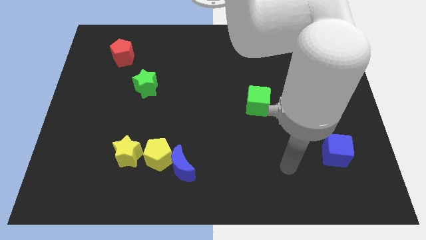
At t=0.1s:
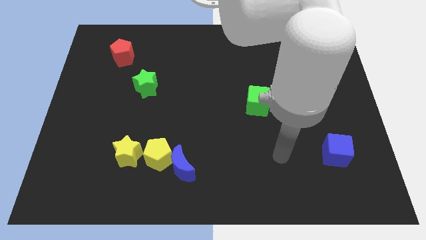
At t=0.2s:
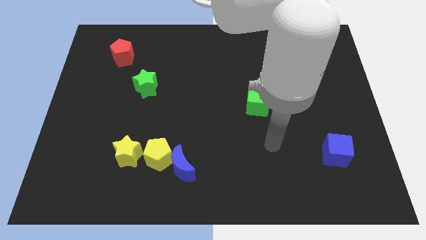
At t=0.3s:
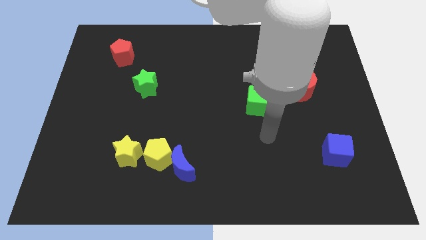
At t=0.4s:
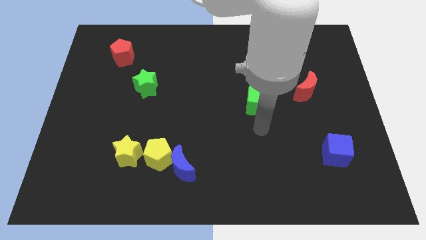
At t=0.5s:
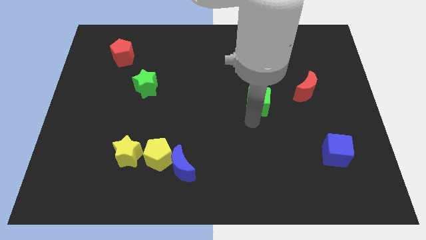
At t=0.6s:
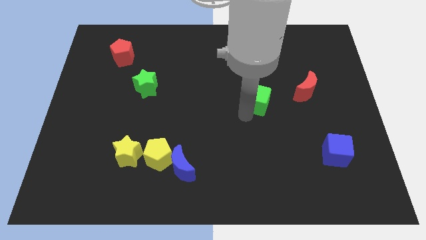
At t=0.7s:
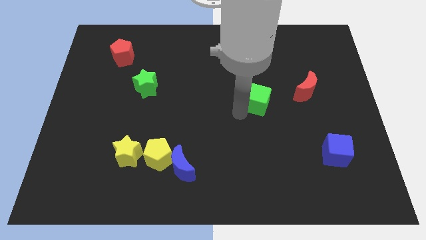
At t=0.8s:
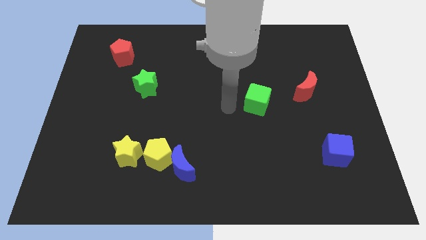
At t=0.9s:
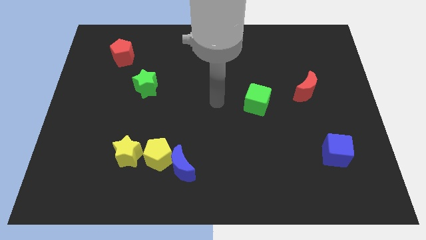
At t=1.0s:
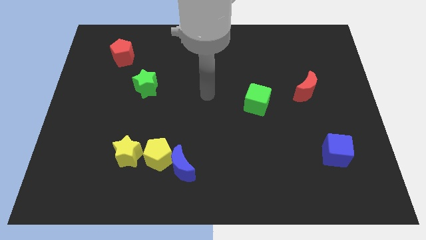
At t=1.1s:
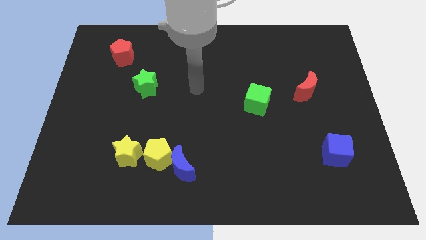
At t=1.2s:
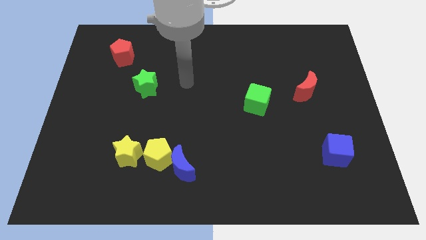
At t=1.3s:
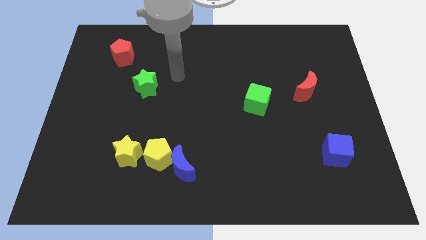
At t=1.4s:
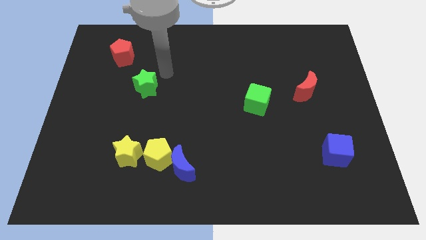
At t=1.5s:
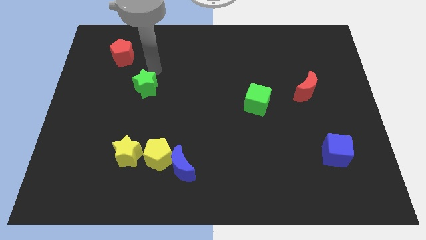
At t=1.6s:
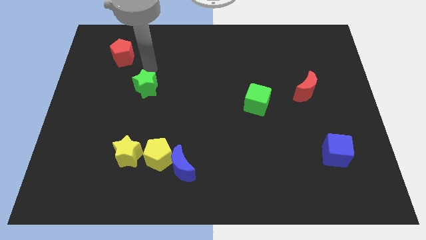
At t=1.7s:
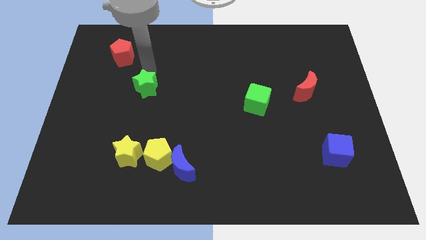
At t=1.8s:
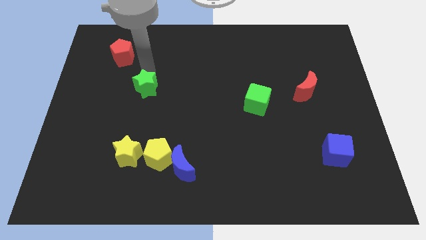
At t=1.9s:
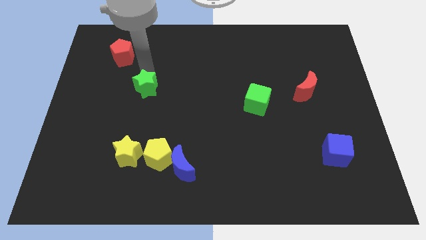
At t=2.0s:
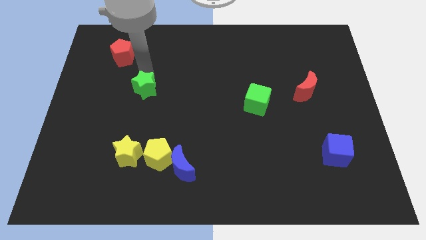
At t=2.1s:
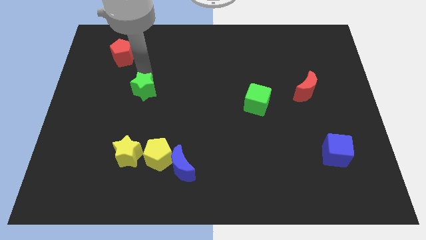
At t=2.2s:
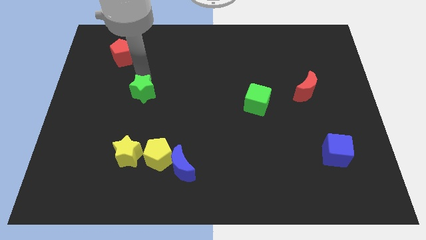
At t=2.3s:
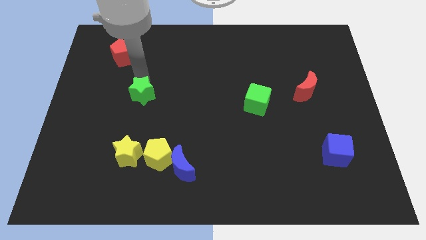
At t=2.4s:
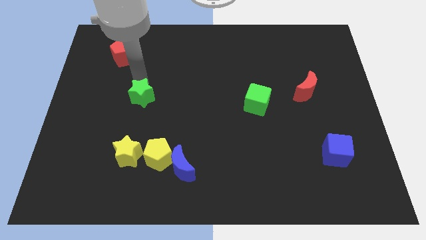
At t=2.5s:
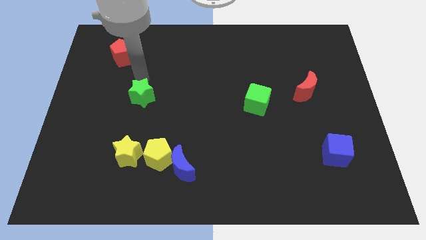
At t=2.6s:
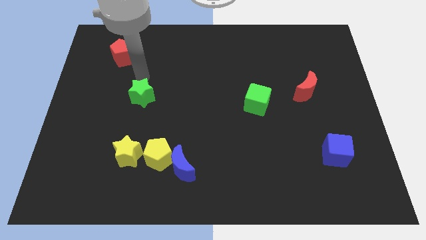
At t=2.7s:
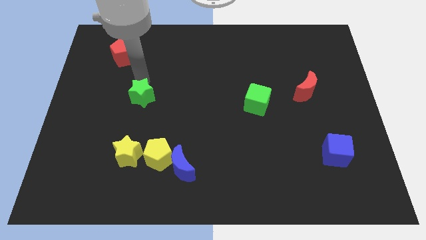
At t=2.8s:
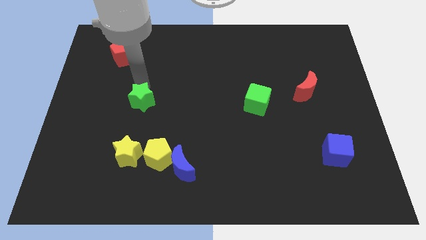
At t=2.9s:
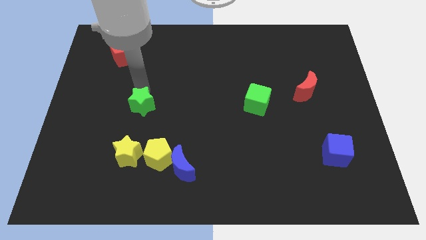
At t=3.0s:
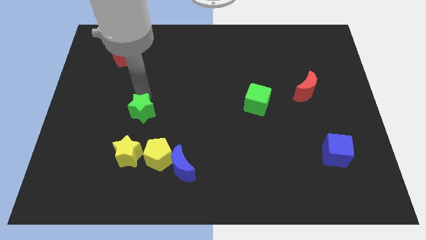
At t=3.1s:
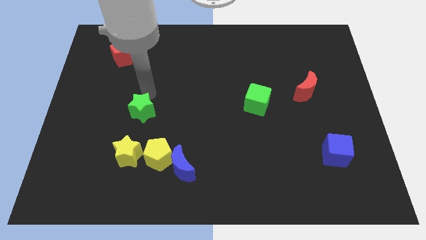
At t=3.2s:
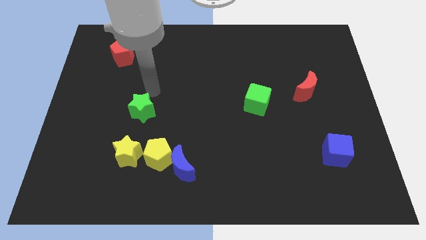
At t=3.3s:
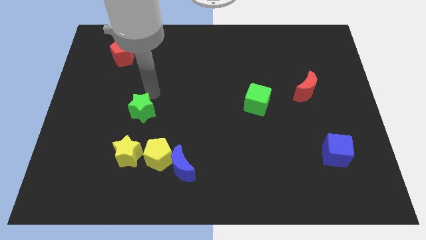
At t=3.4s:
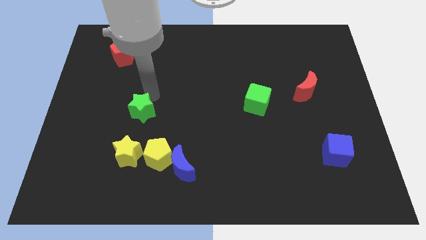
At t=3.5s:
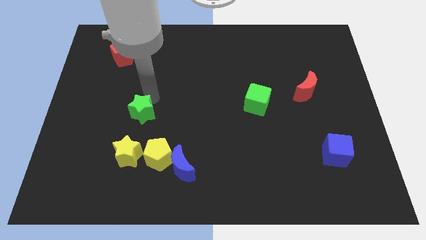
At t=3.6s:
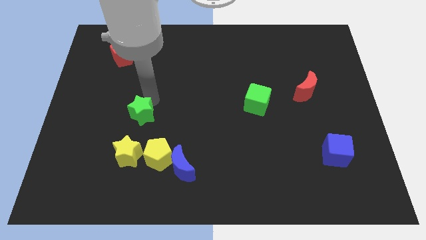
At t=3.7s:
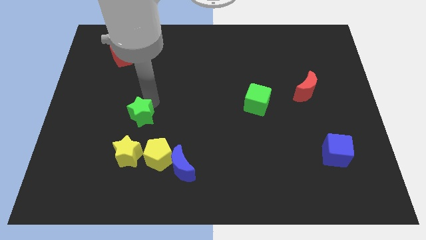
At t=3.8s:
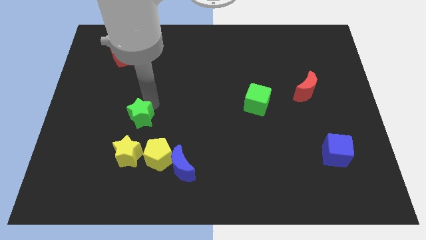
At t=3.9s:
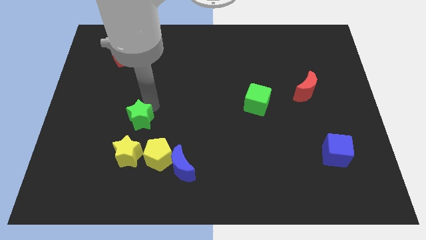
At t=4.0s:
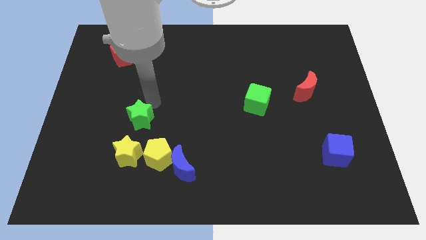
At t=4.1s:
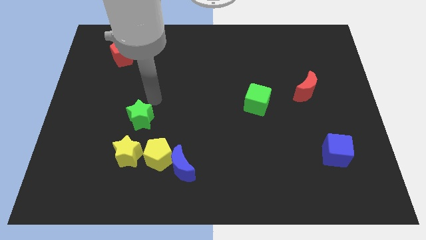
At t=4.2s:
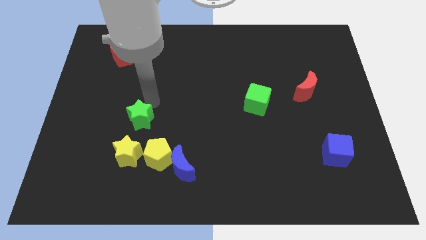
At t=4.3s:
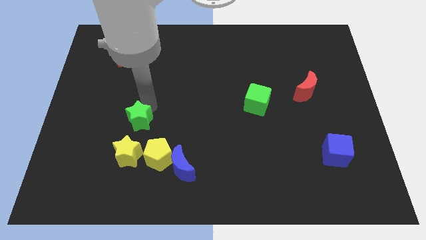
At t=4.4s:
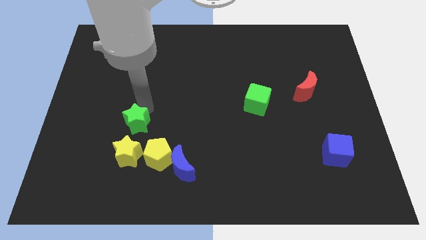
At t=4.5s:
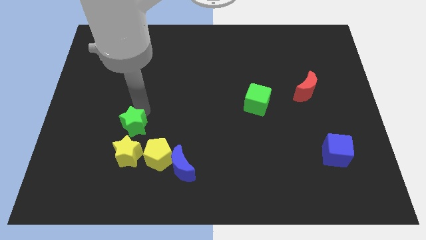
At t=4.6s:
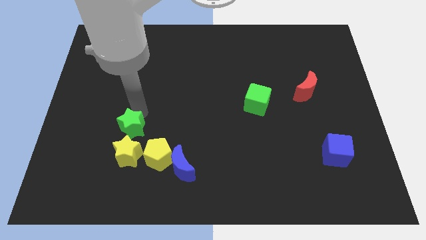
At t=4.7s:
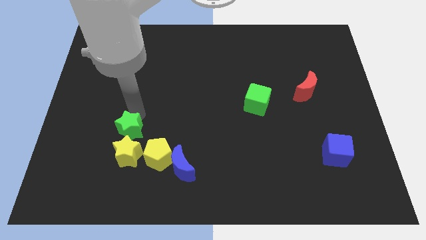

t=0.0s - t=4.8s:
push the green star to the yellow star

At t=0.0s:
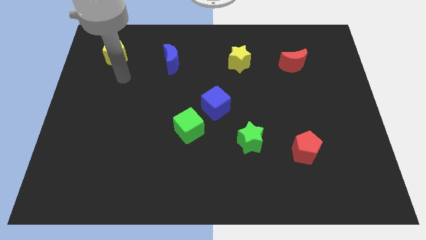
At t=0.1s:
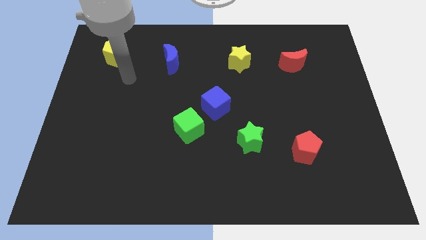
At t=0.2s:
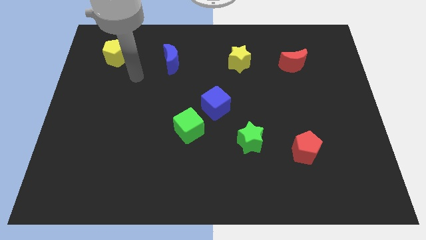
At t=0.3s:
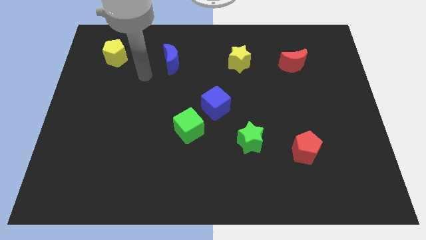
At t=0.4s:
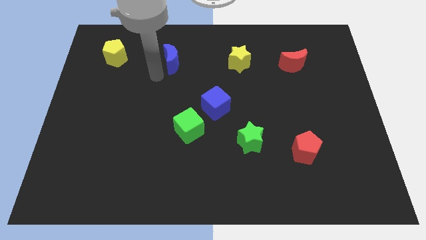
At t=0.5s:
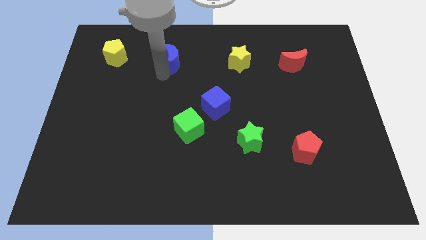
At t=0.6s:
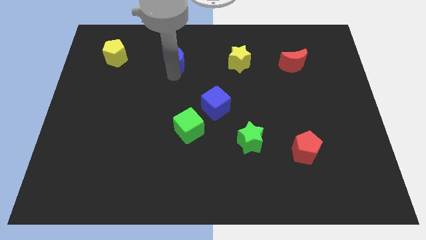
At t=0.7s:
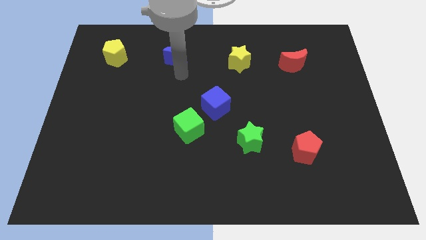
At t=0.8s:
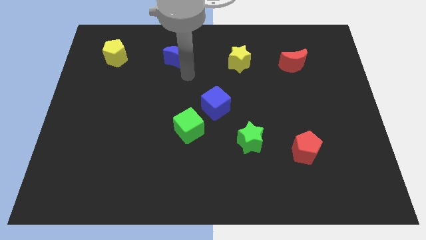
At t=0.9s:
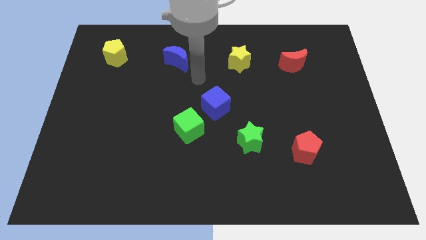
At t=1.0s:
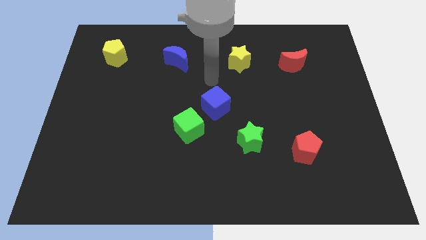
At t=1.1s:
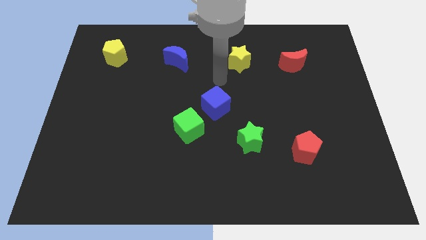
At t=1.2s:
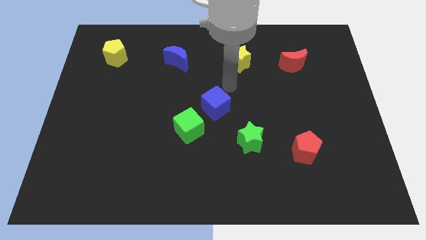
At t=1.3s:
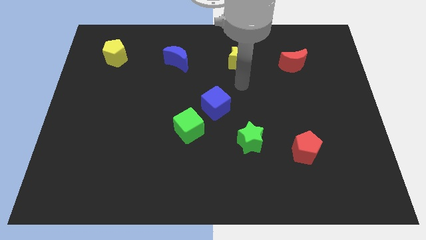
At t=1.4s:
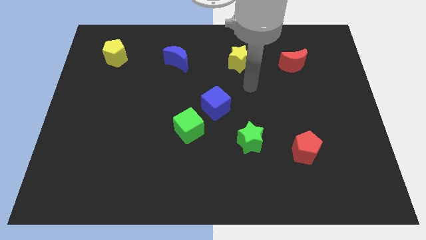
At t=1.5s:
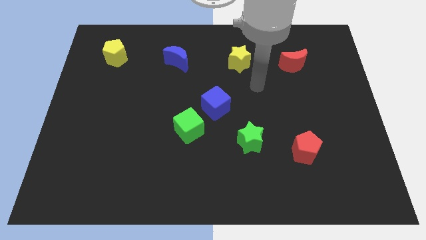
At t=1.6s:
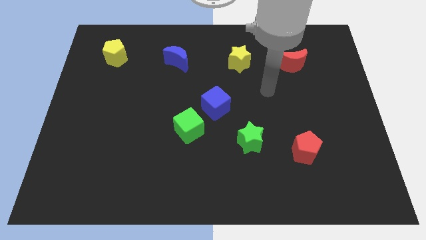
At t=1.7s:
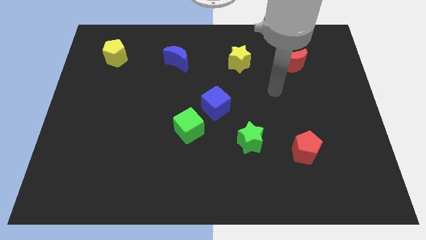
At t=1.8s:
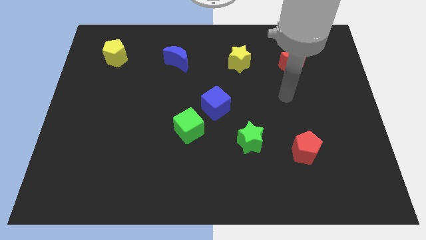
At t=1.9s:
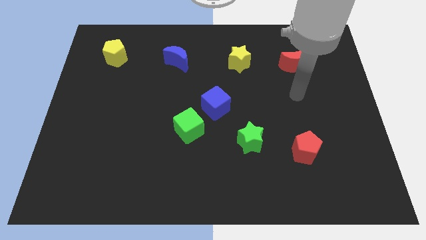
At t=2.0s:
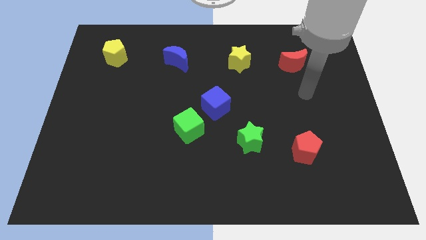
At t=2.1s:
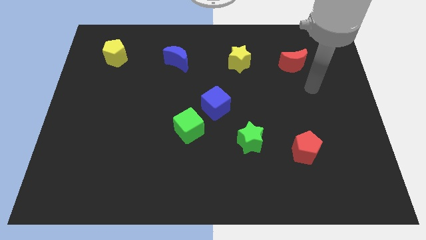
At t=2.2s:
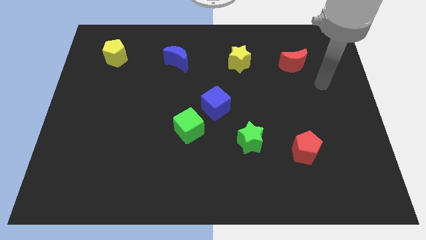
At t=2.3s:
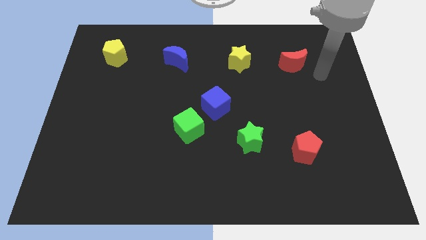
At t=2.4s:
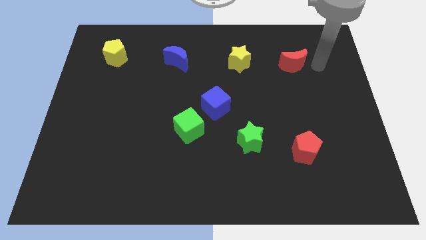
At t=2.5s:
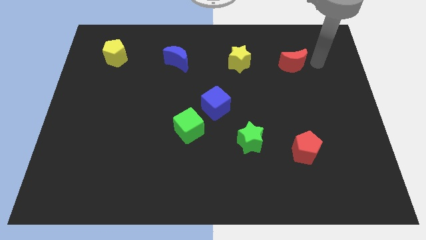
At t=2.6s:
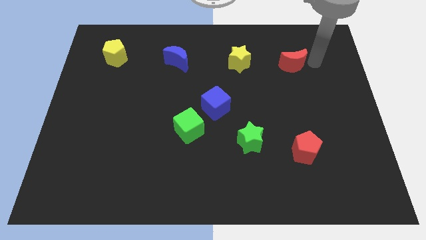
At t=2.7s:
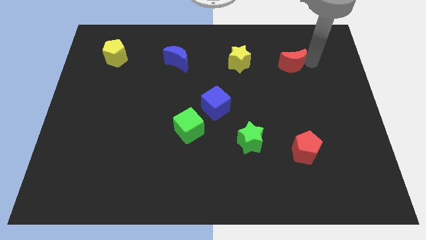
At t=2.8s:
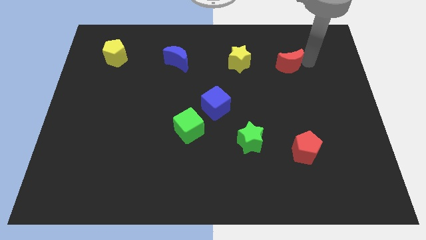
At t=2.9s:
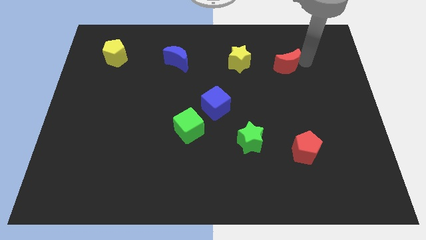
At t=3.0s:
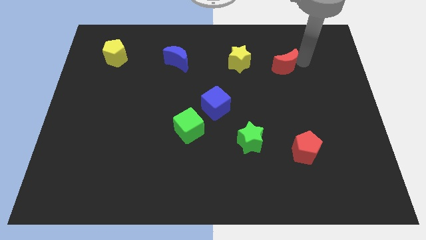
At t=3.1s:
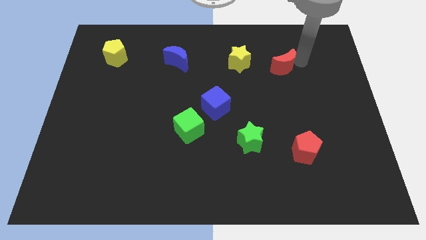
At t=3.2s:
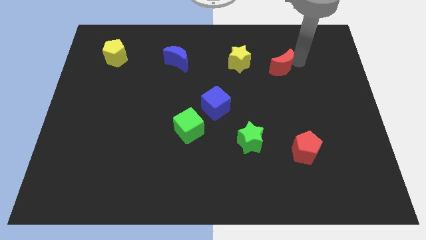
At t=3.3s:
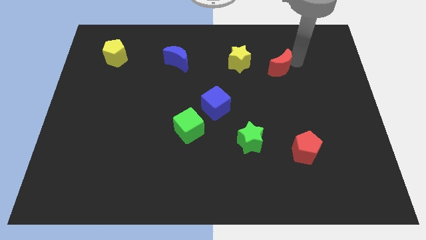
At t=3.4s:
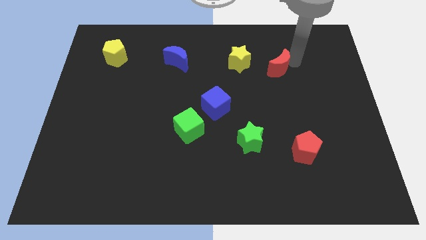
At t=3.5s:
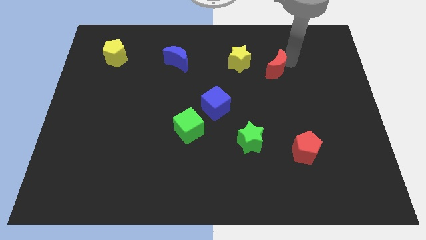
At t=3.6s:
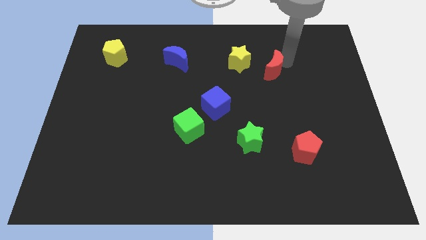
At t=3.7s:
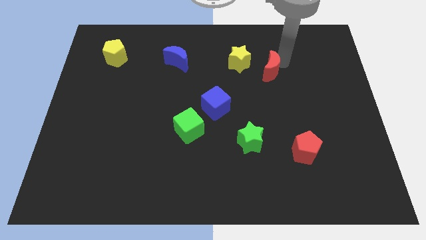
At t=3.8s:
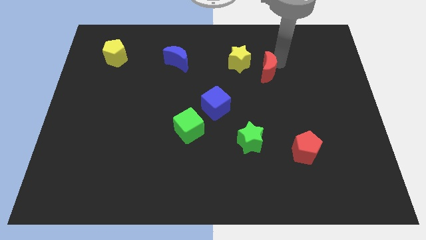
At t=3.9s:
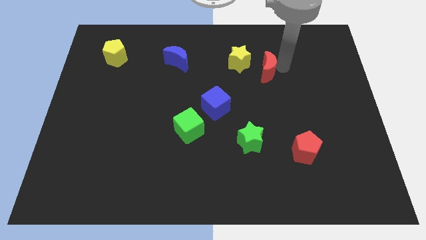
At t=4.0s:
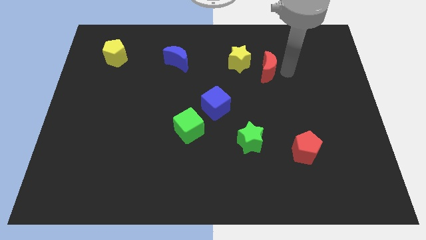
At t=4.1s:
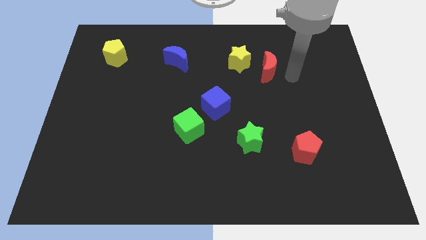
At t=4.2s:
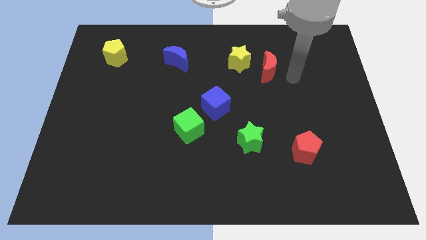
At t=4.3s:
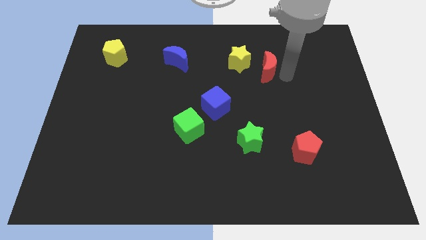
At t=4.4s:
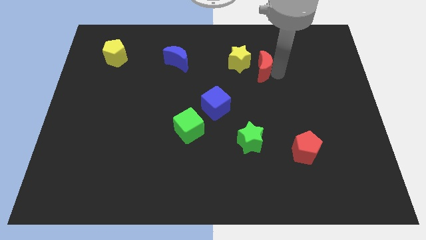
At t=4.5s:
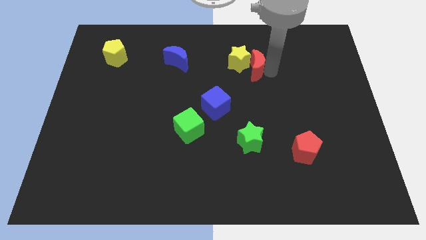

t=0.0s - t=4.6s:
move the red moon next to the yellow star
